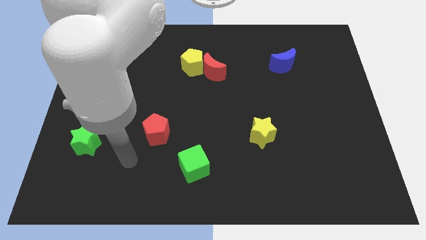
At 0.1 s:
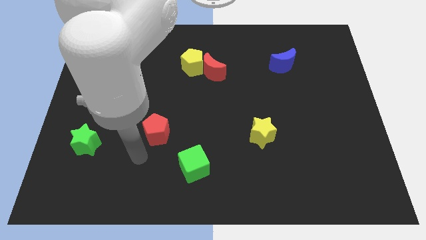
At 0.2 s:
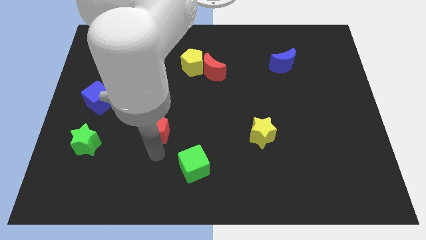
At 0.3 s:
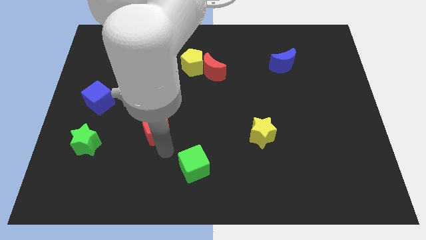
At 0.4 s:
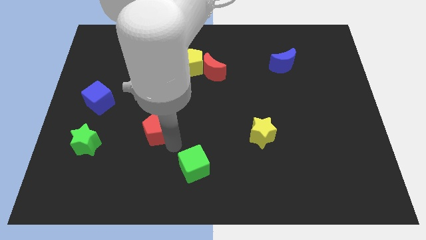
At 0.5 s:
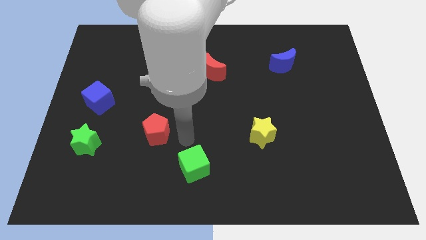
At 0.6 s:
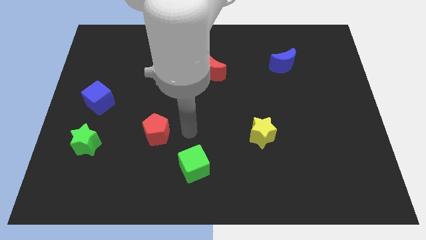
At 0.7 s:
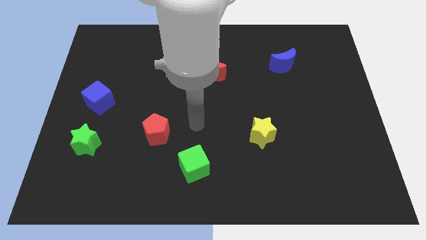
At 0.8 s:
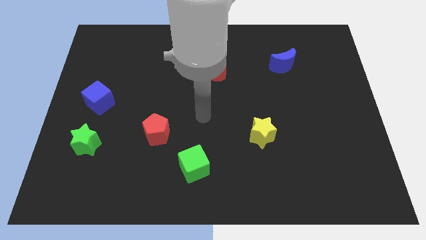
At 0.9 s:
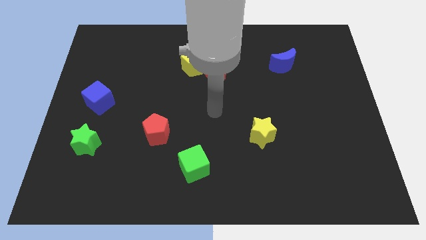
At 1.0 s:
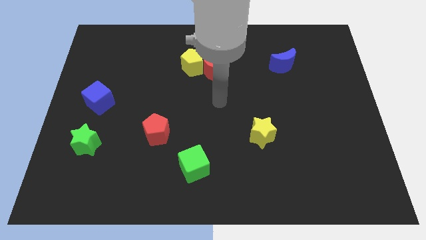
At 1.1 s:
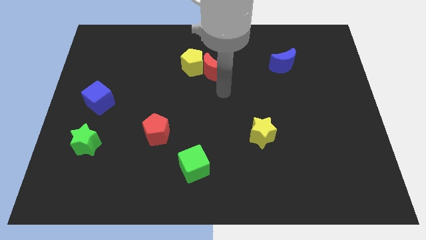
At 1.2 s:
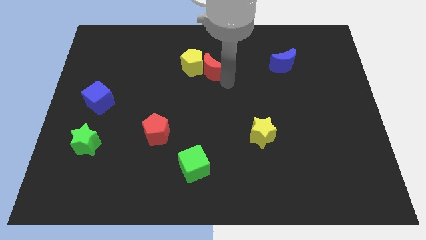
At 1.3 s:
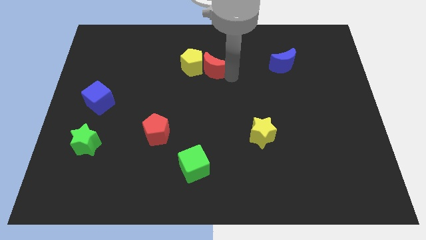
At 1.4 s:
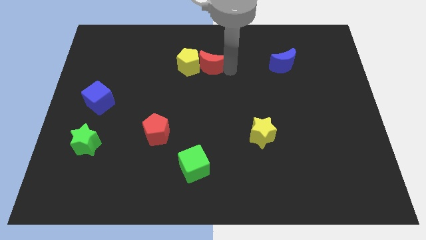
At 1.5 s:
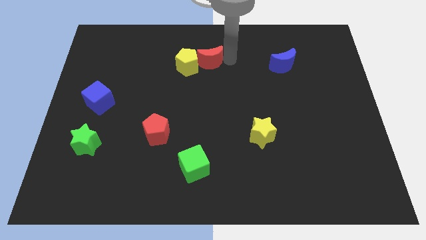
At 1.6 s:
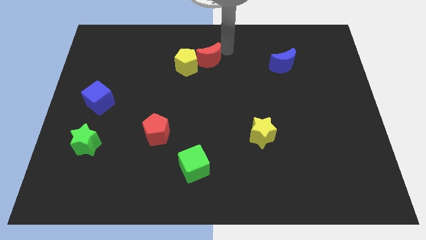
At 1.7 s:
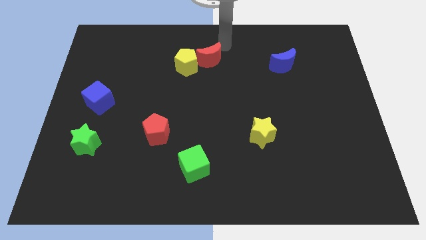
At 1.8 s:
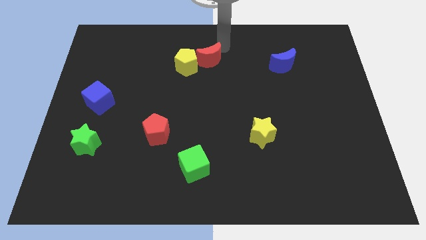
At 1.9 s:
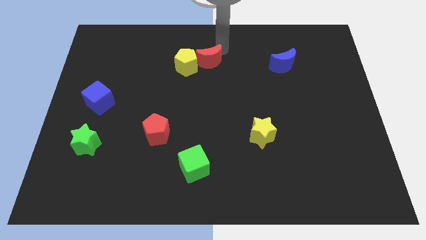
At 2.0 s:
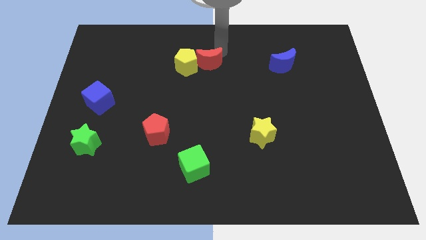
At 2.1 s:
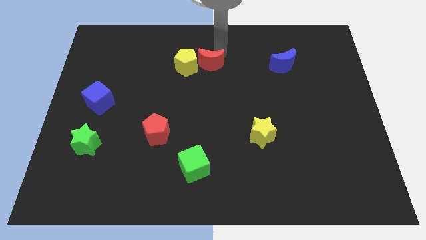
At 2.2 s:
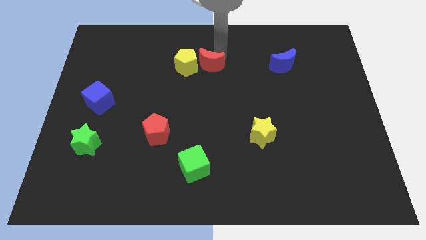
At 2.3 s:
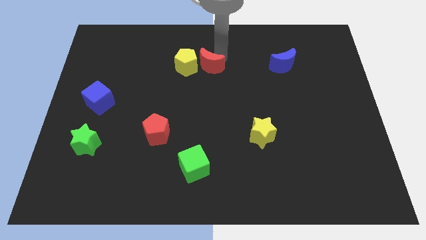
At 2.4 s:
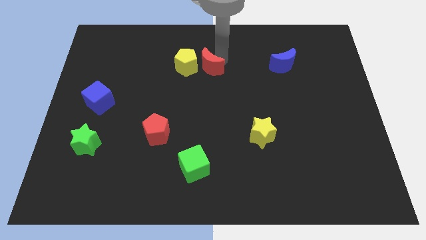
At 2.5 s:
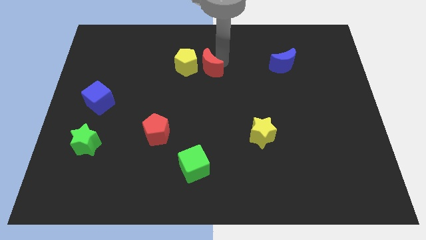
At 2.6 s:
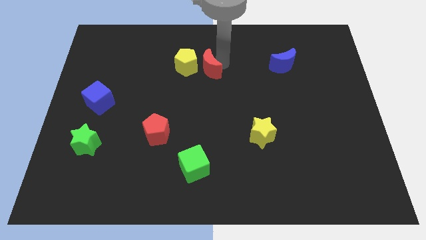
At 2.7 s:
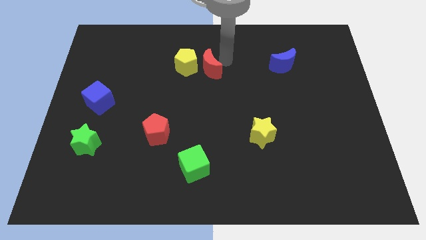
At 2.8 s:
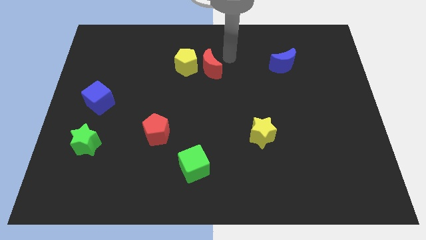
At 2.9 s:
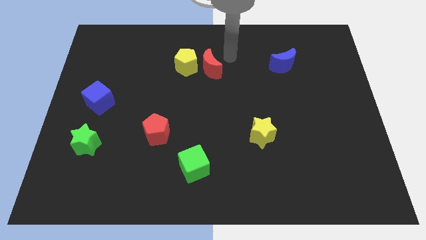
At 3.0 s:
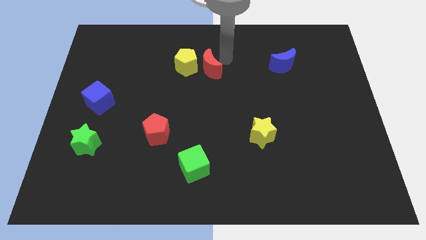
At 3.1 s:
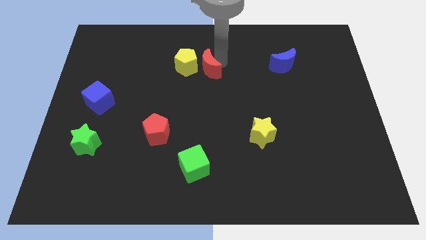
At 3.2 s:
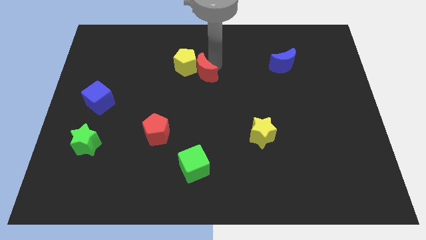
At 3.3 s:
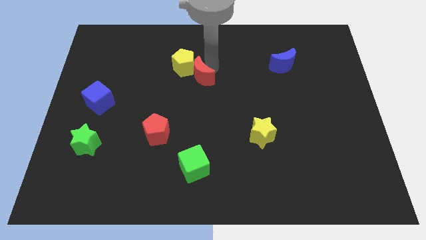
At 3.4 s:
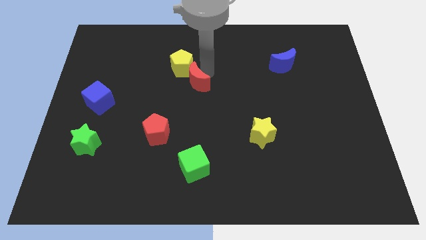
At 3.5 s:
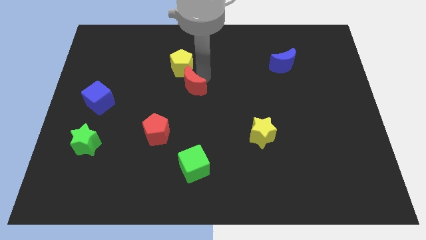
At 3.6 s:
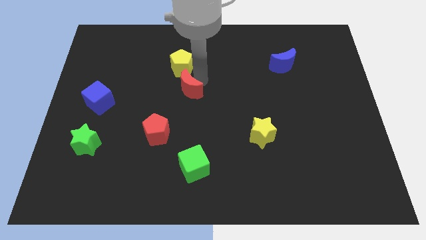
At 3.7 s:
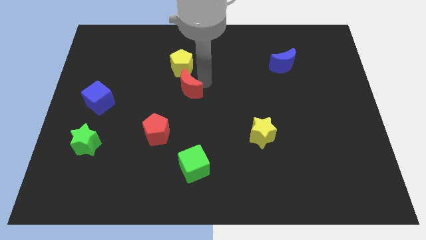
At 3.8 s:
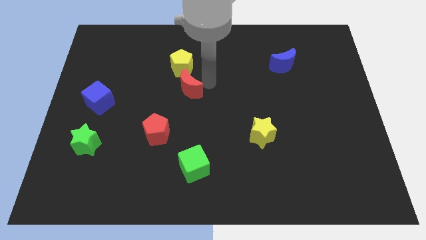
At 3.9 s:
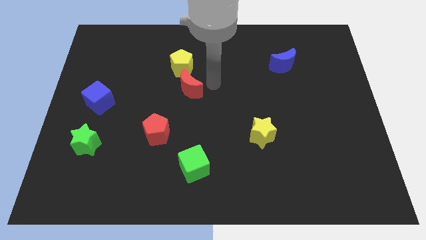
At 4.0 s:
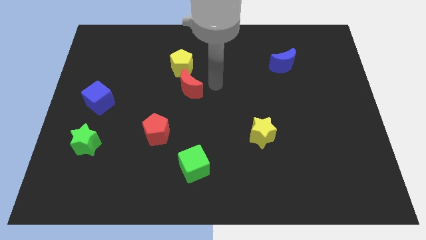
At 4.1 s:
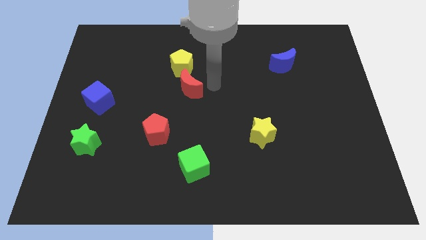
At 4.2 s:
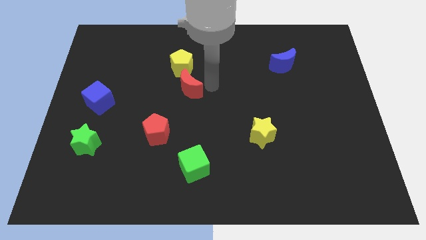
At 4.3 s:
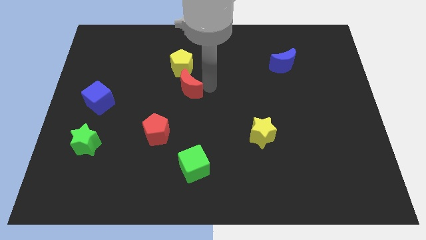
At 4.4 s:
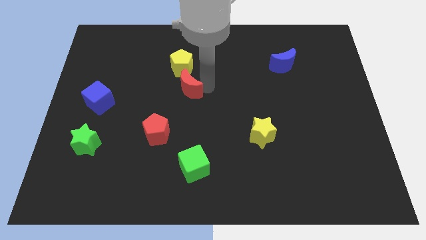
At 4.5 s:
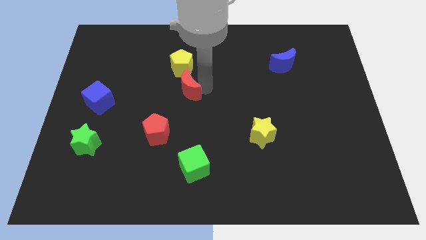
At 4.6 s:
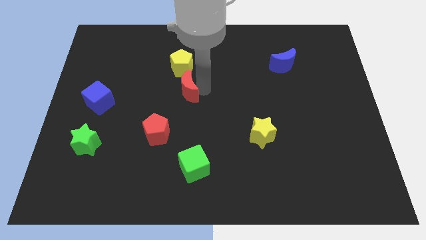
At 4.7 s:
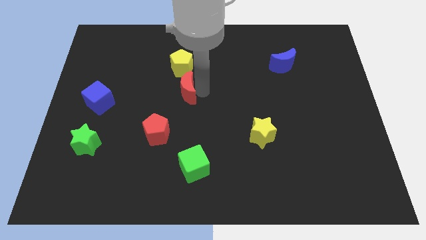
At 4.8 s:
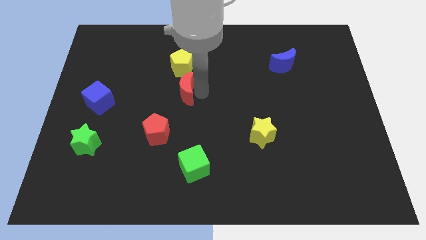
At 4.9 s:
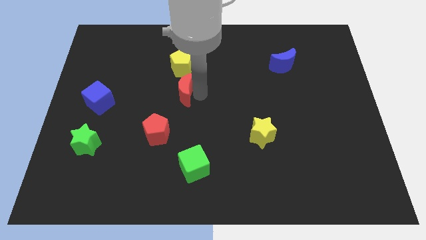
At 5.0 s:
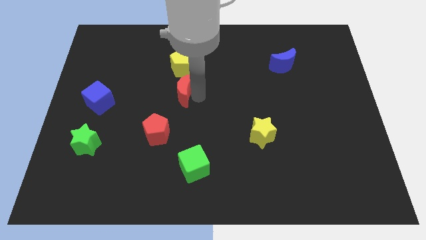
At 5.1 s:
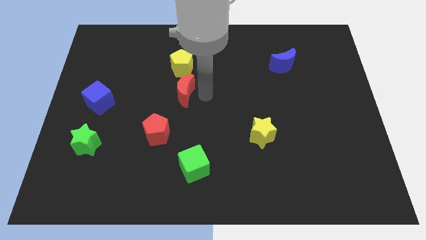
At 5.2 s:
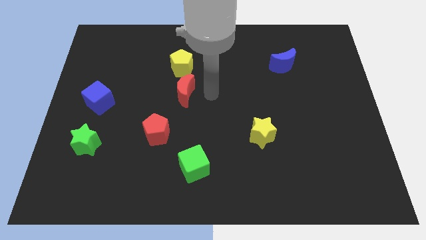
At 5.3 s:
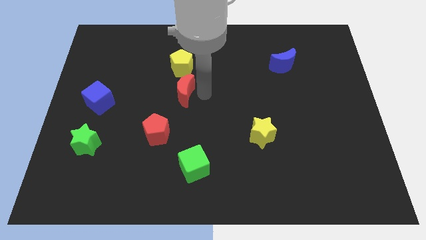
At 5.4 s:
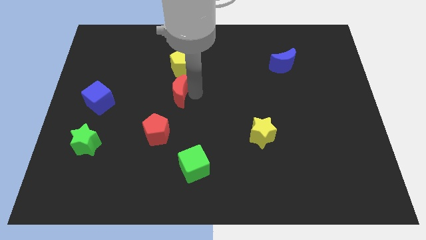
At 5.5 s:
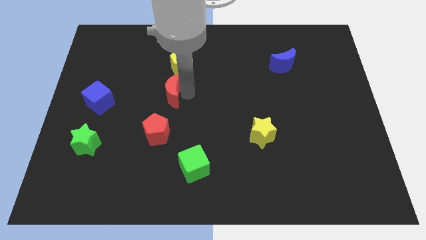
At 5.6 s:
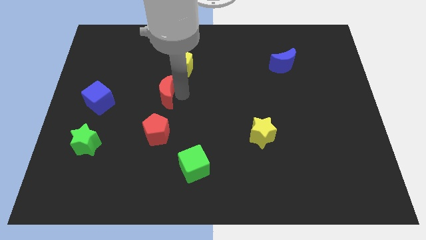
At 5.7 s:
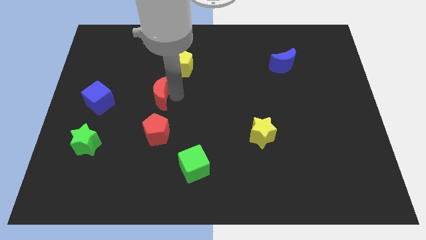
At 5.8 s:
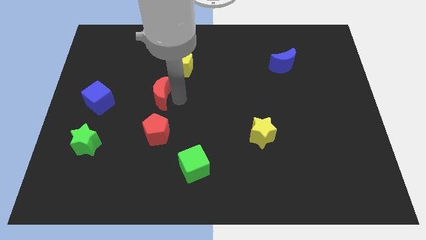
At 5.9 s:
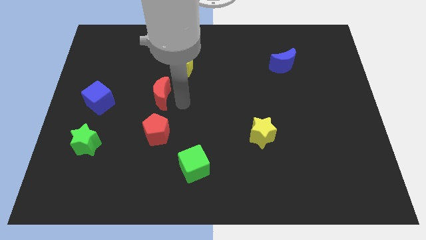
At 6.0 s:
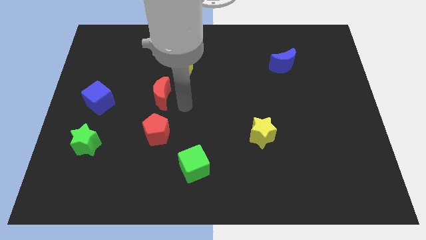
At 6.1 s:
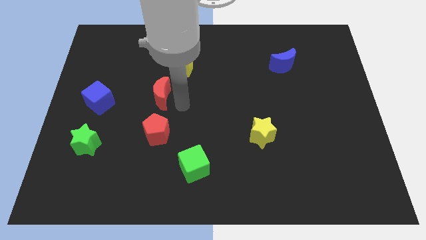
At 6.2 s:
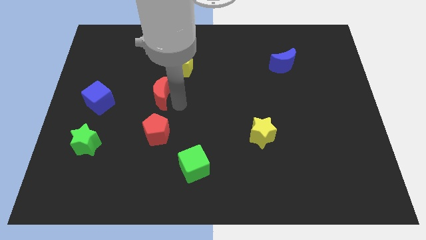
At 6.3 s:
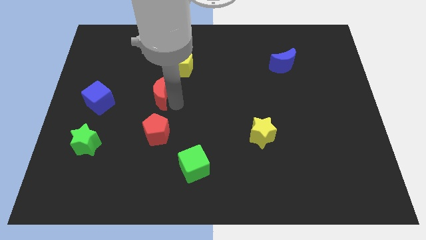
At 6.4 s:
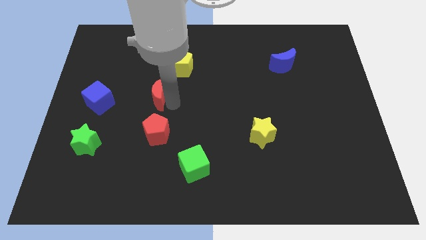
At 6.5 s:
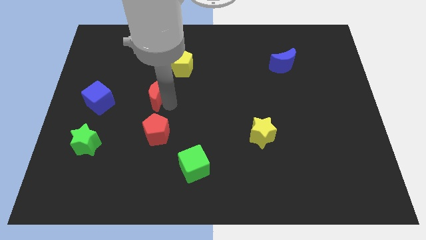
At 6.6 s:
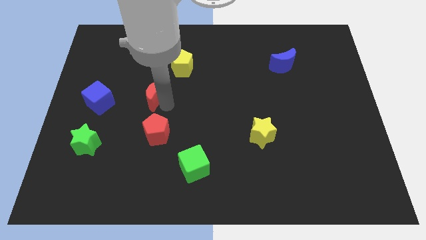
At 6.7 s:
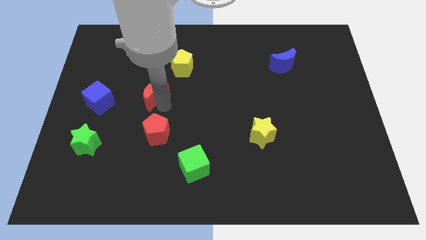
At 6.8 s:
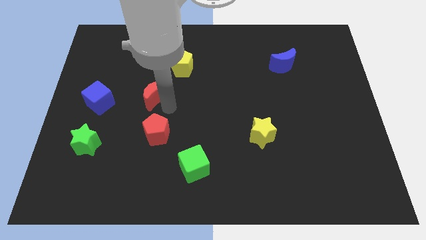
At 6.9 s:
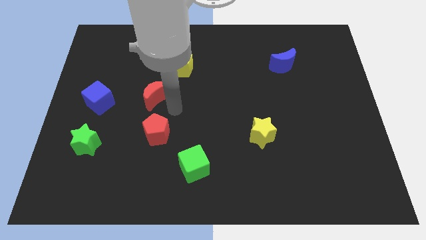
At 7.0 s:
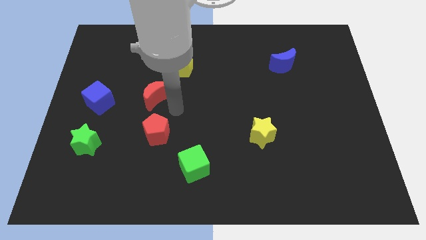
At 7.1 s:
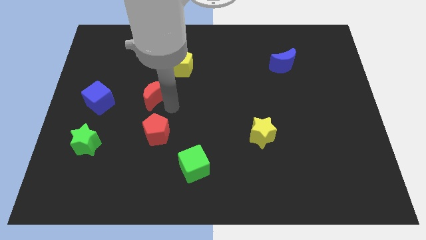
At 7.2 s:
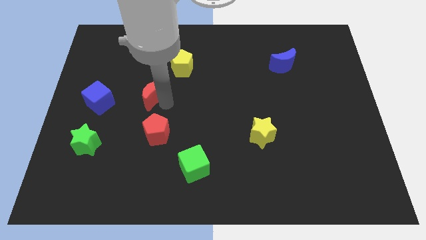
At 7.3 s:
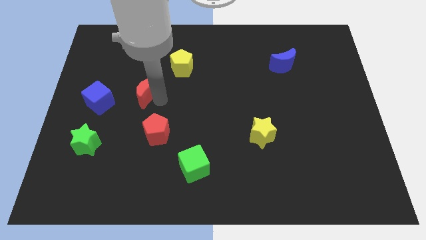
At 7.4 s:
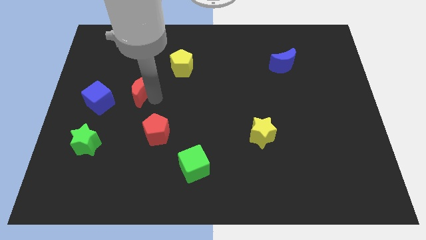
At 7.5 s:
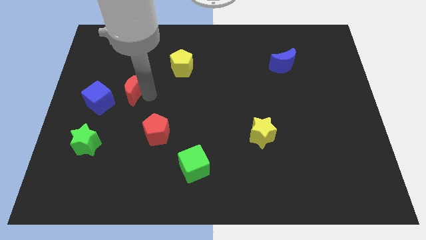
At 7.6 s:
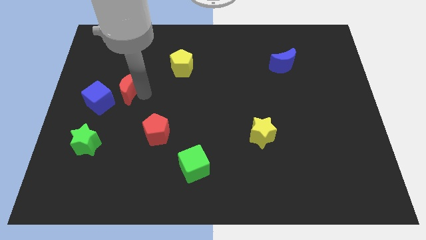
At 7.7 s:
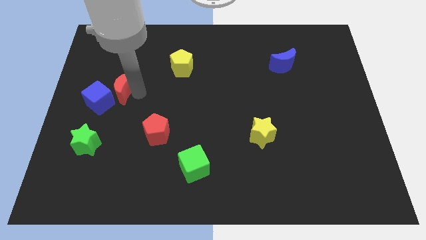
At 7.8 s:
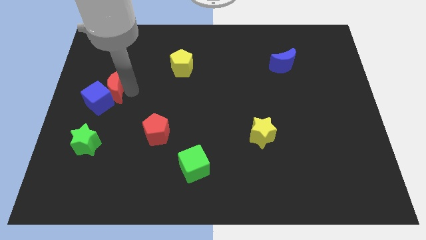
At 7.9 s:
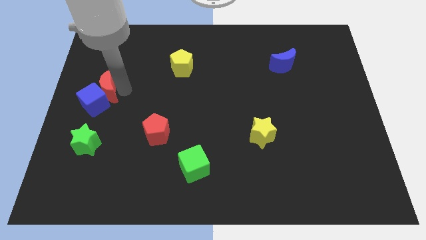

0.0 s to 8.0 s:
slide the red moon to the left side
